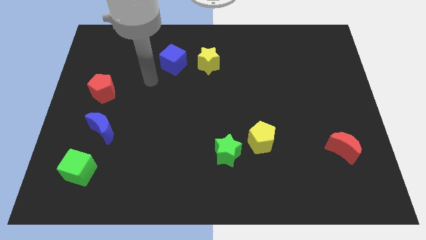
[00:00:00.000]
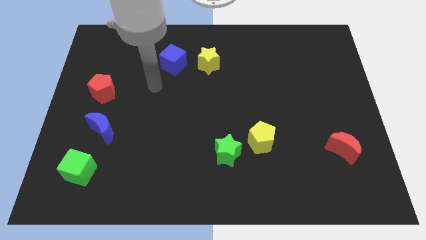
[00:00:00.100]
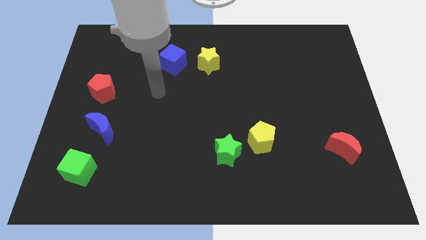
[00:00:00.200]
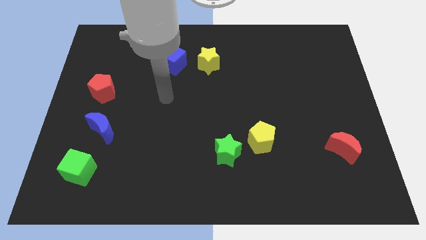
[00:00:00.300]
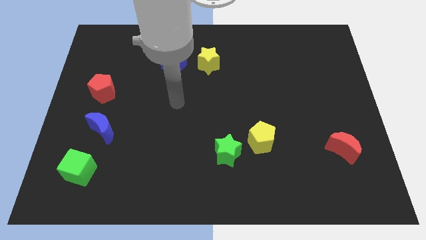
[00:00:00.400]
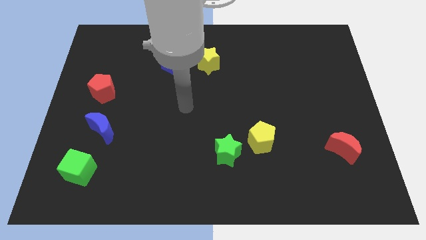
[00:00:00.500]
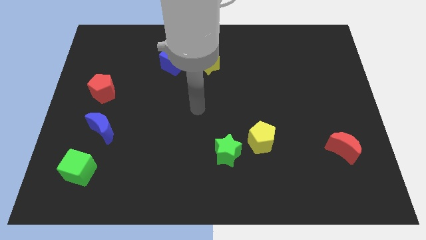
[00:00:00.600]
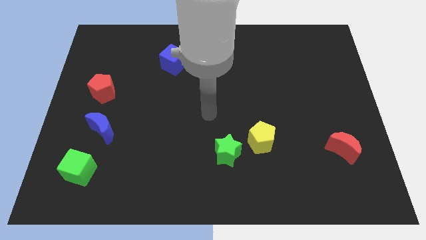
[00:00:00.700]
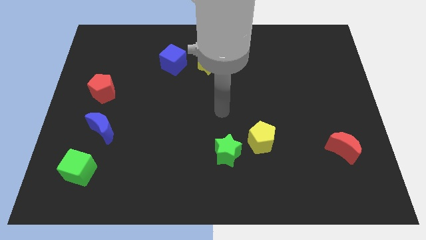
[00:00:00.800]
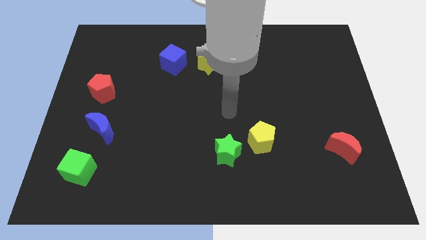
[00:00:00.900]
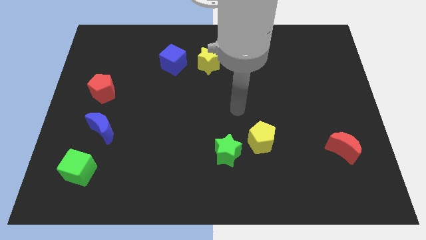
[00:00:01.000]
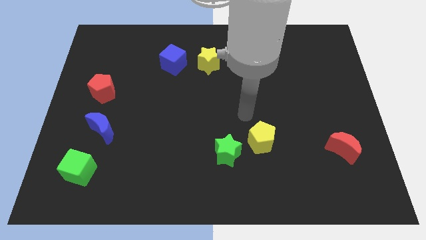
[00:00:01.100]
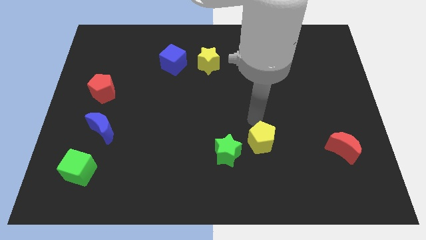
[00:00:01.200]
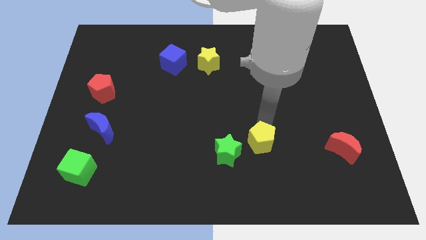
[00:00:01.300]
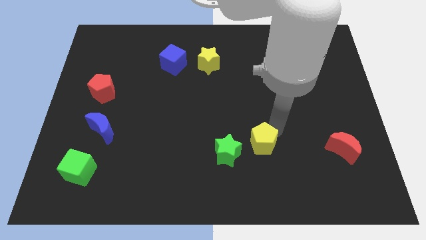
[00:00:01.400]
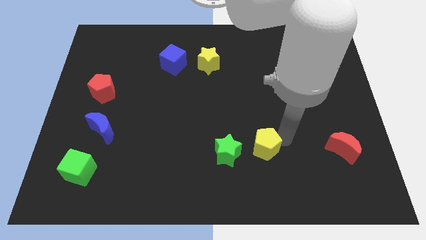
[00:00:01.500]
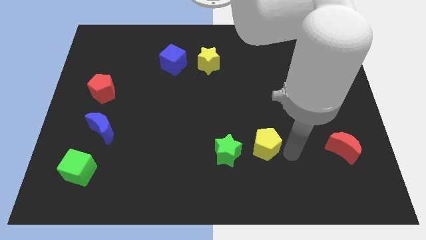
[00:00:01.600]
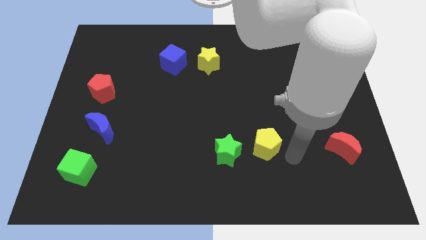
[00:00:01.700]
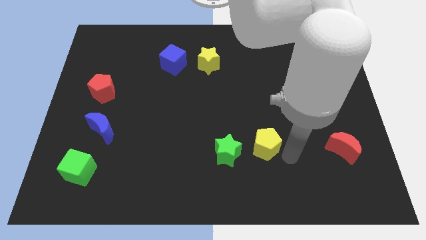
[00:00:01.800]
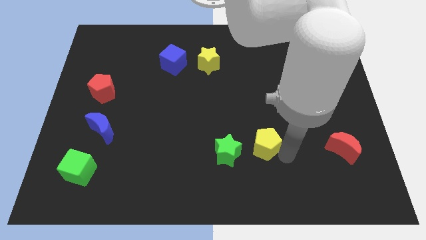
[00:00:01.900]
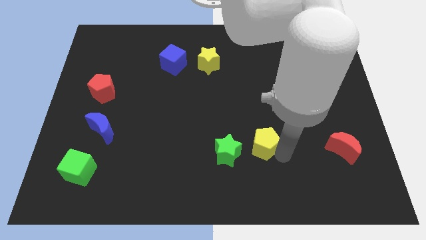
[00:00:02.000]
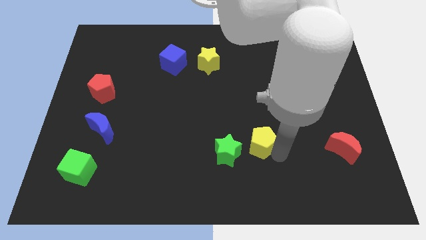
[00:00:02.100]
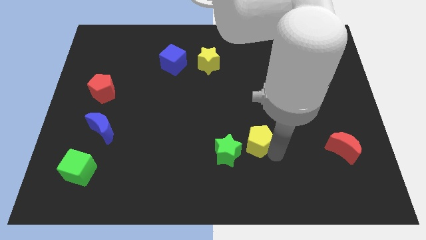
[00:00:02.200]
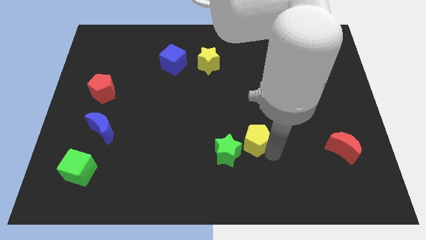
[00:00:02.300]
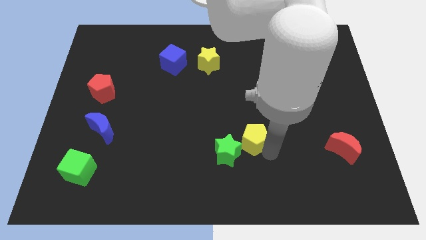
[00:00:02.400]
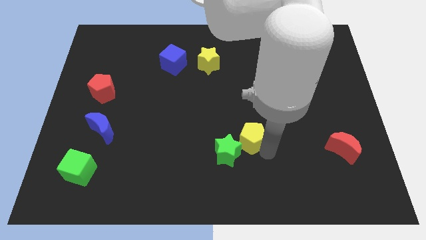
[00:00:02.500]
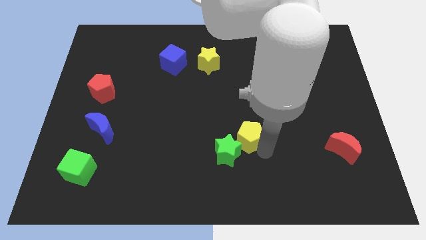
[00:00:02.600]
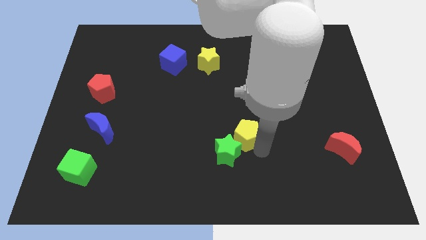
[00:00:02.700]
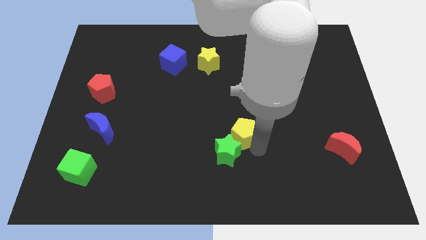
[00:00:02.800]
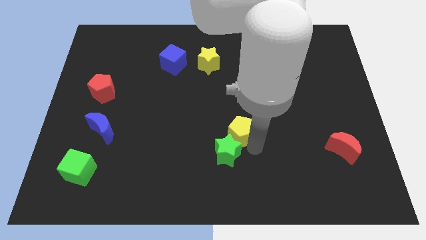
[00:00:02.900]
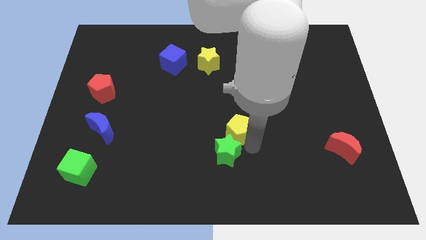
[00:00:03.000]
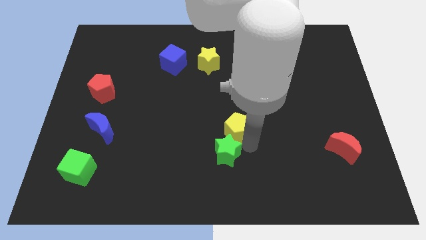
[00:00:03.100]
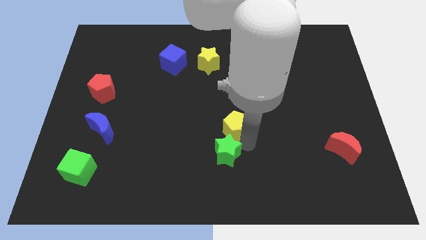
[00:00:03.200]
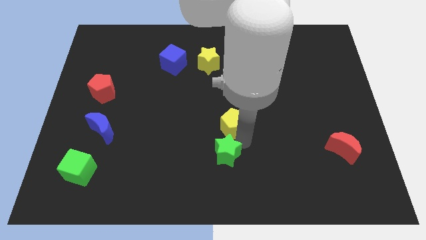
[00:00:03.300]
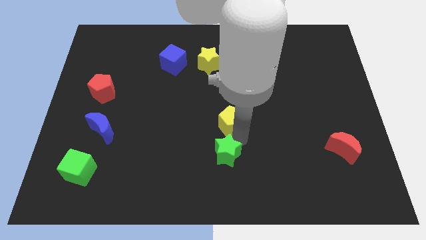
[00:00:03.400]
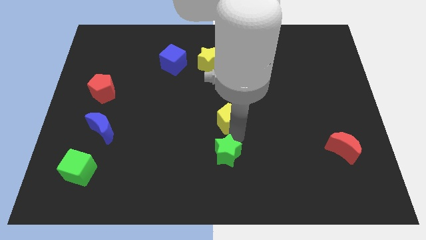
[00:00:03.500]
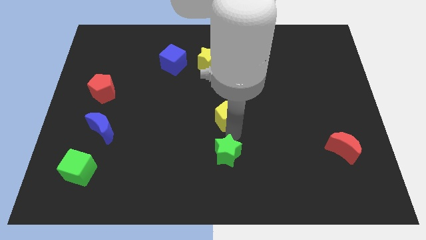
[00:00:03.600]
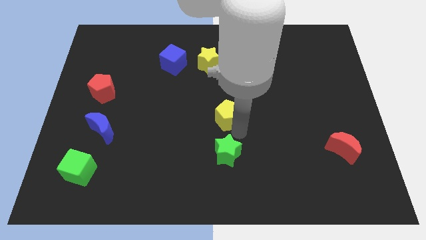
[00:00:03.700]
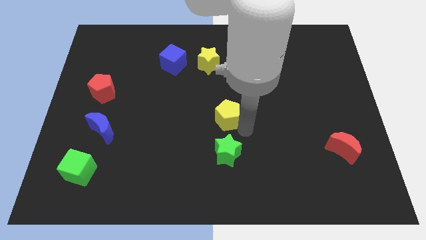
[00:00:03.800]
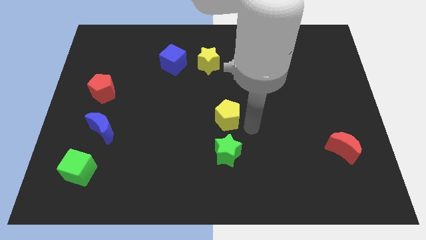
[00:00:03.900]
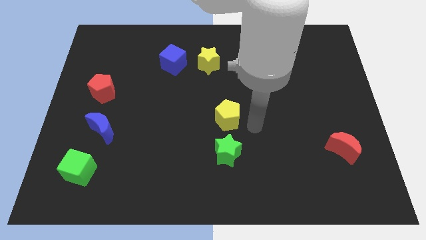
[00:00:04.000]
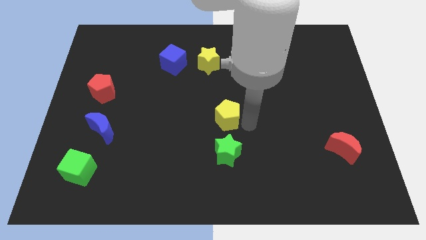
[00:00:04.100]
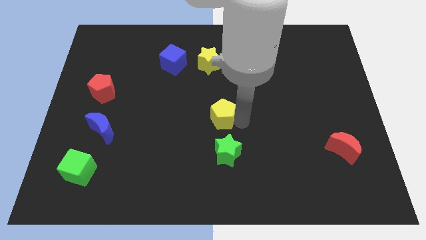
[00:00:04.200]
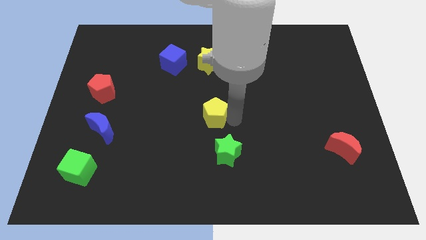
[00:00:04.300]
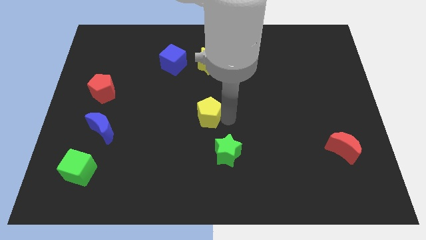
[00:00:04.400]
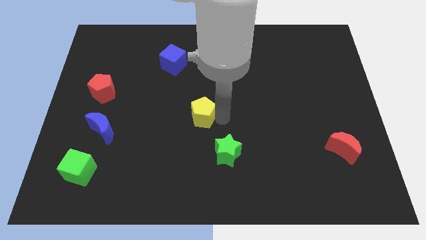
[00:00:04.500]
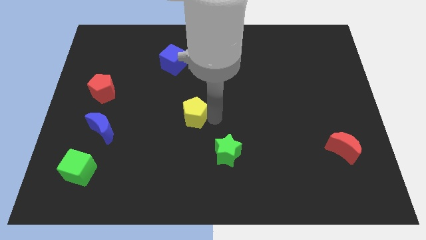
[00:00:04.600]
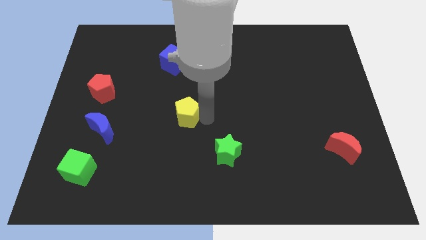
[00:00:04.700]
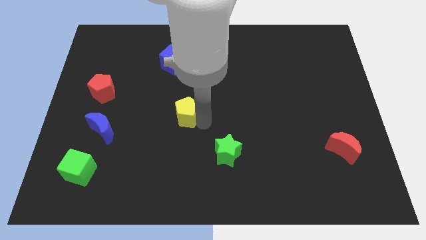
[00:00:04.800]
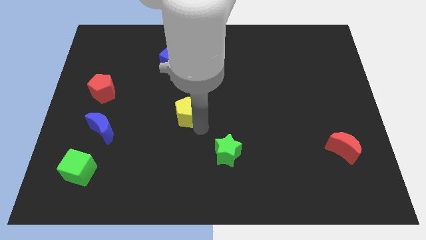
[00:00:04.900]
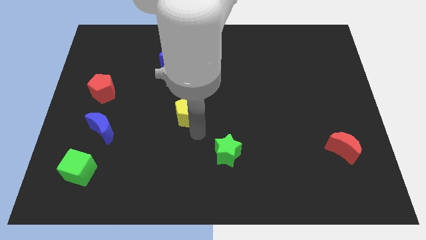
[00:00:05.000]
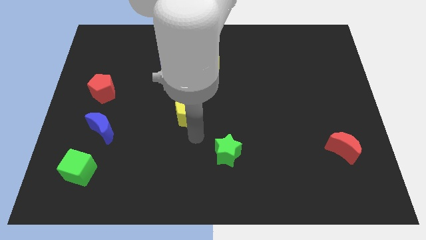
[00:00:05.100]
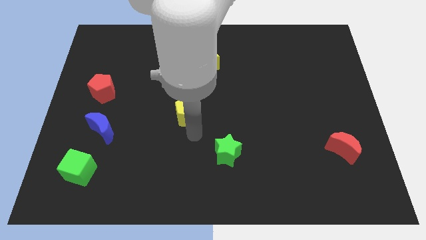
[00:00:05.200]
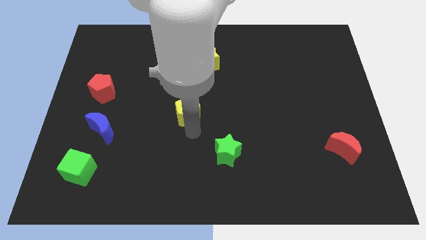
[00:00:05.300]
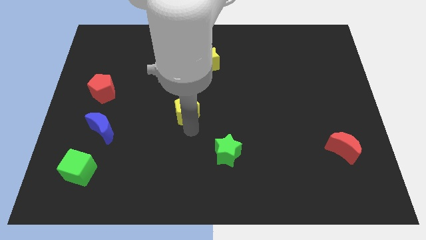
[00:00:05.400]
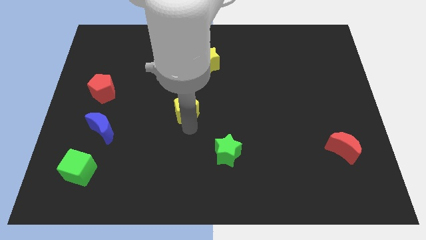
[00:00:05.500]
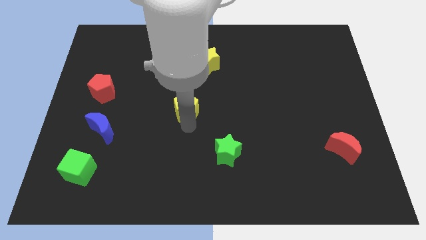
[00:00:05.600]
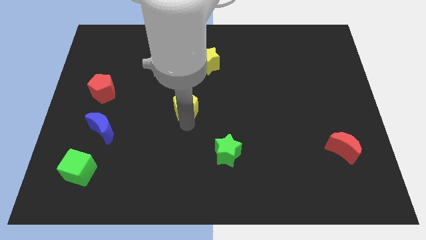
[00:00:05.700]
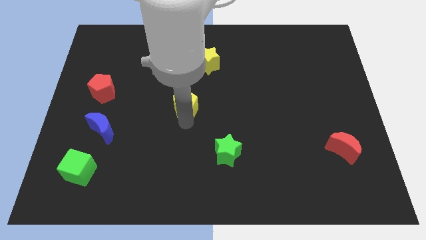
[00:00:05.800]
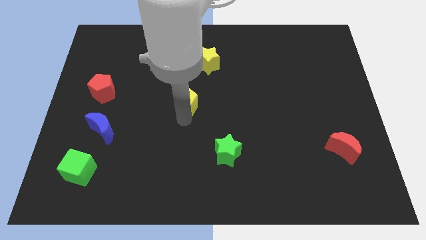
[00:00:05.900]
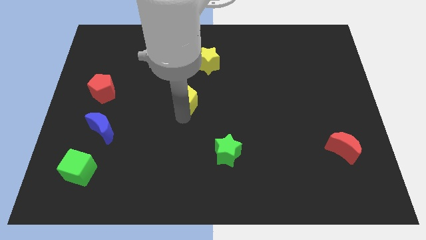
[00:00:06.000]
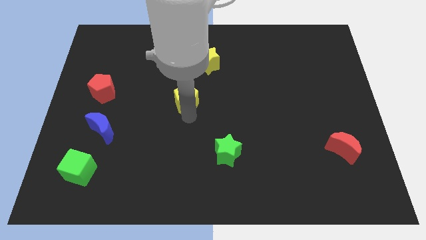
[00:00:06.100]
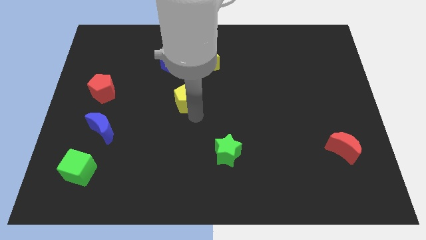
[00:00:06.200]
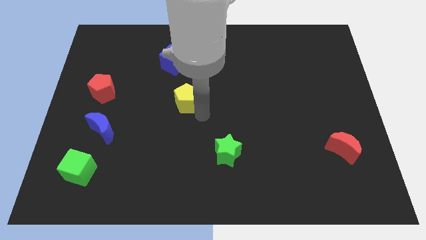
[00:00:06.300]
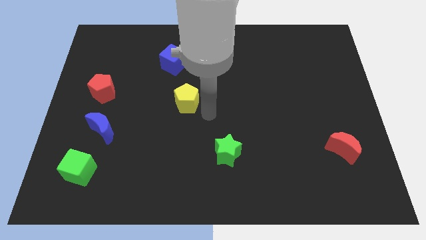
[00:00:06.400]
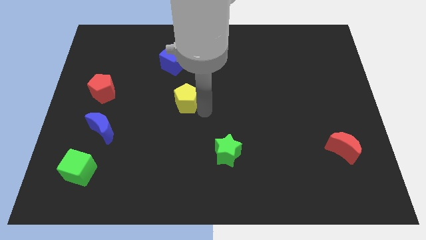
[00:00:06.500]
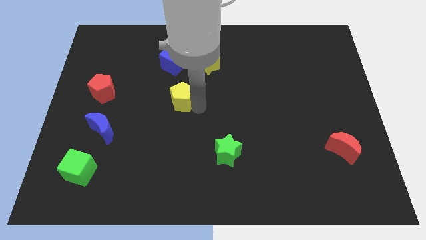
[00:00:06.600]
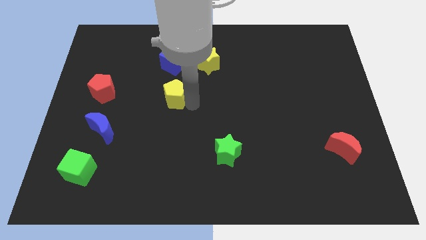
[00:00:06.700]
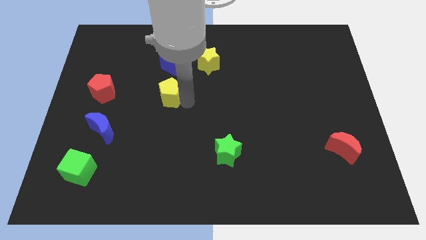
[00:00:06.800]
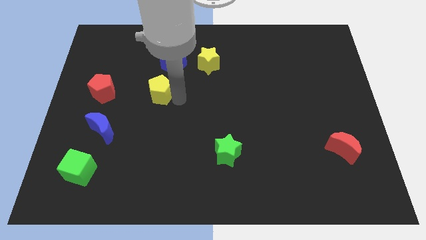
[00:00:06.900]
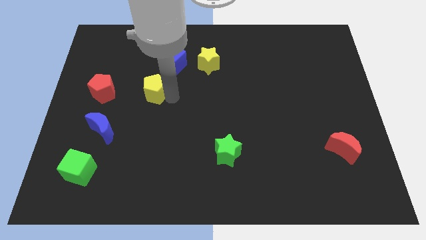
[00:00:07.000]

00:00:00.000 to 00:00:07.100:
slide the yellow pentagon to the bottom left of the blue cube
